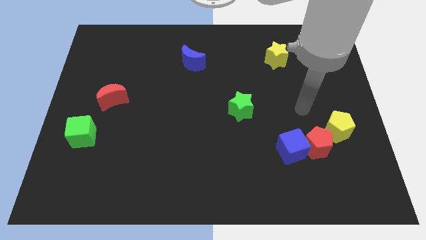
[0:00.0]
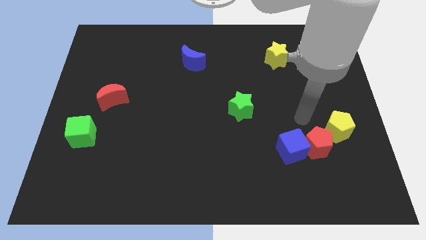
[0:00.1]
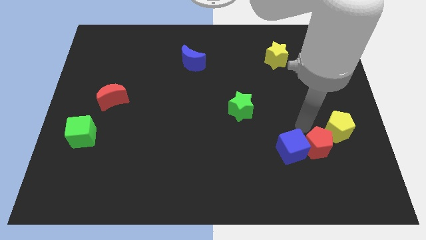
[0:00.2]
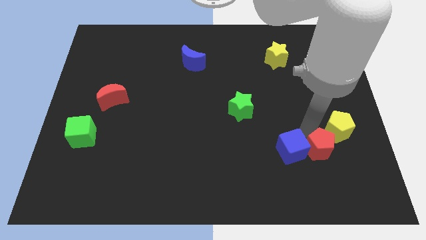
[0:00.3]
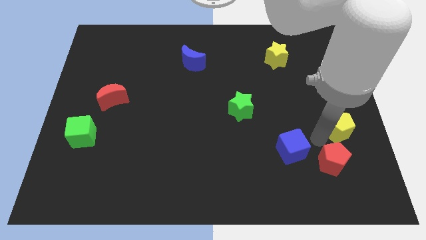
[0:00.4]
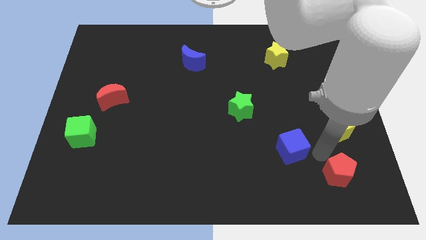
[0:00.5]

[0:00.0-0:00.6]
pull the blue cube apart from the red pentagon

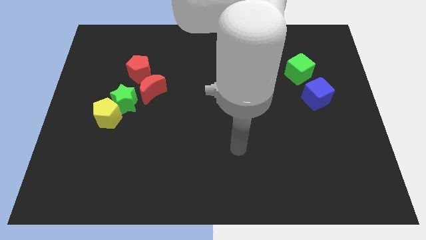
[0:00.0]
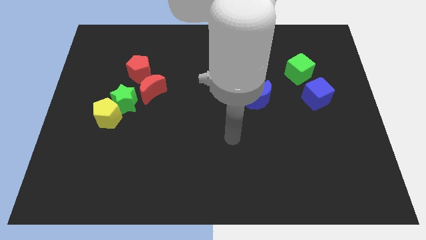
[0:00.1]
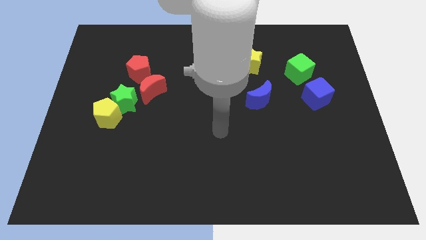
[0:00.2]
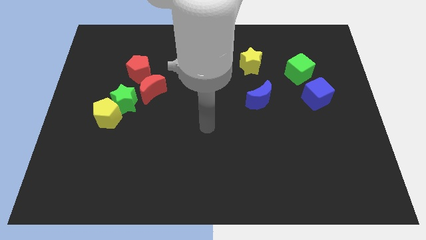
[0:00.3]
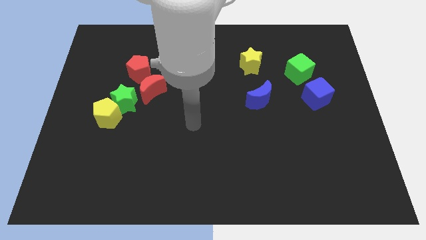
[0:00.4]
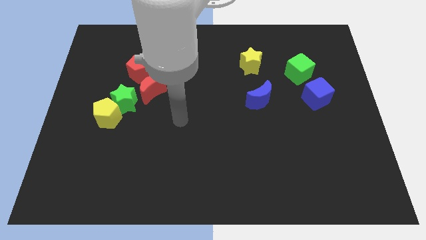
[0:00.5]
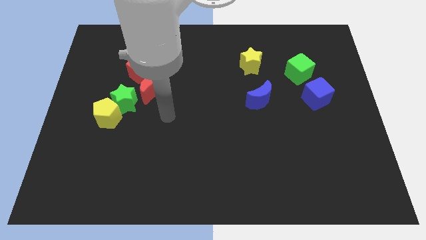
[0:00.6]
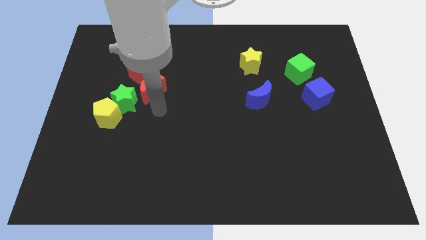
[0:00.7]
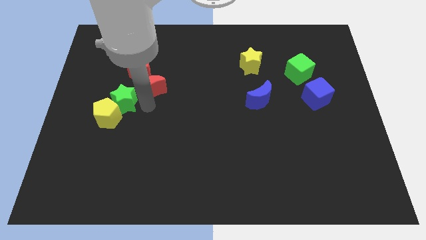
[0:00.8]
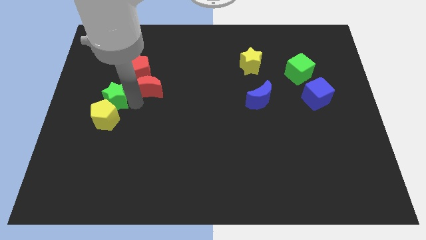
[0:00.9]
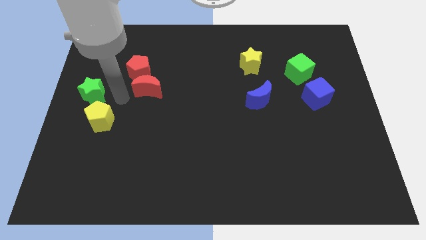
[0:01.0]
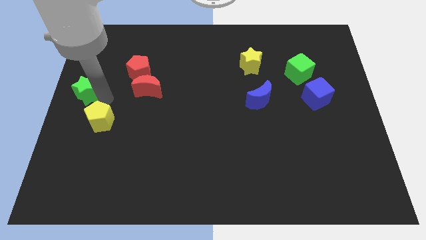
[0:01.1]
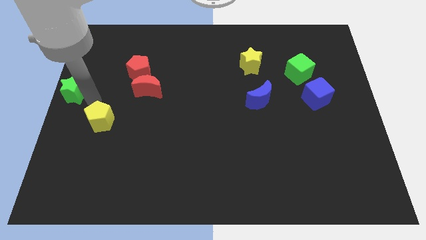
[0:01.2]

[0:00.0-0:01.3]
separate the yellow pentagon from the green star

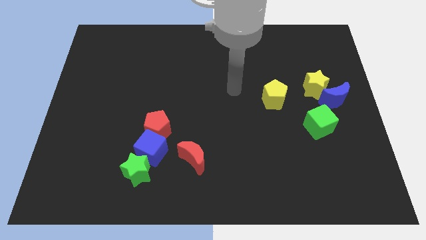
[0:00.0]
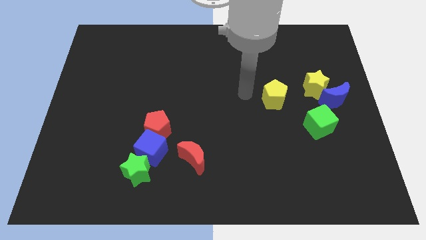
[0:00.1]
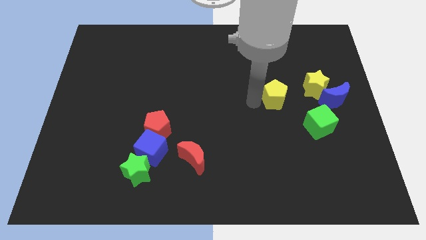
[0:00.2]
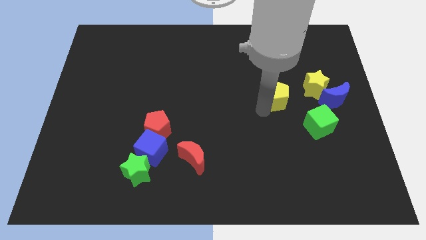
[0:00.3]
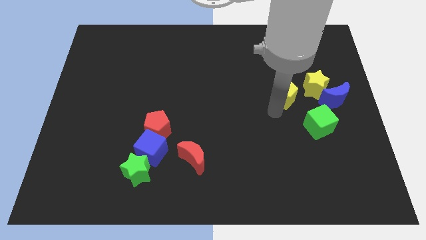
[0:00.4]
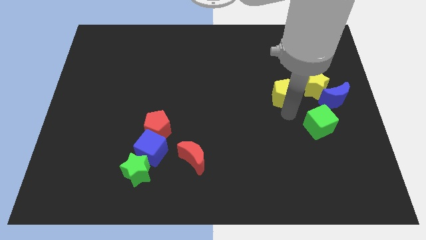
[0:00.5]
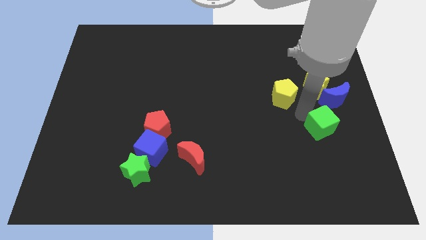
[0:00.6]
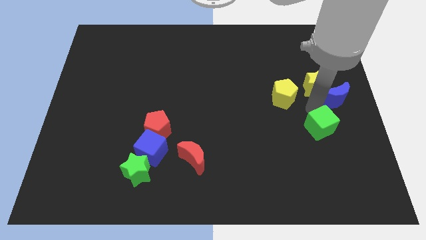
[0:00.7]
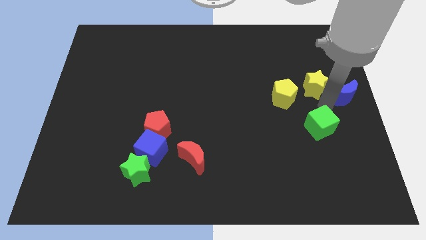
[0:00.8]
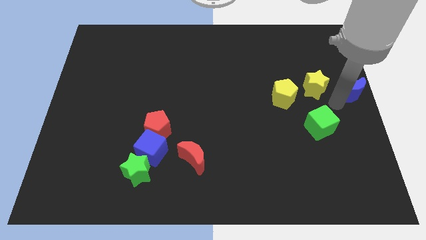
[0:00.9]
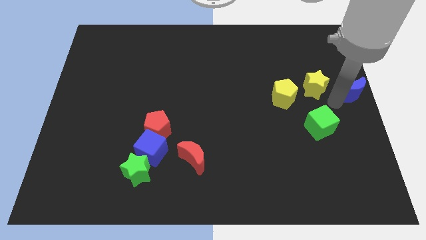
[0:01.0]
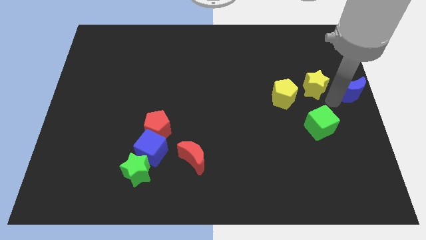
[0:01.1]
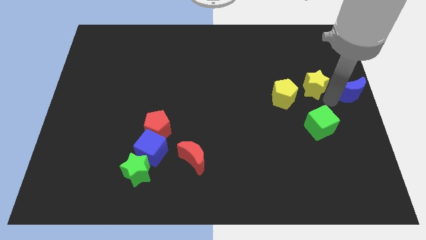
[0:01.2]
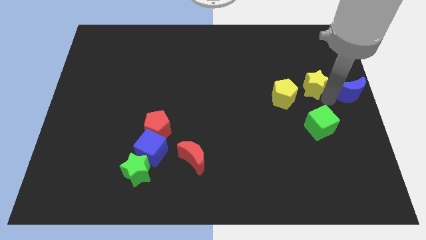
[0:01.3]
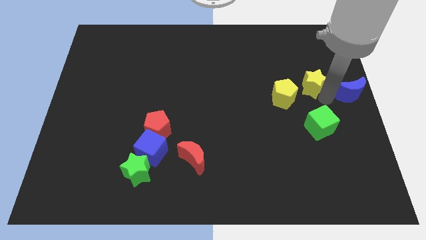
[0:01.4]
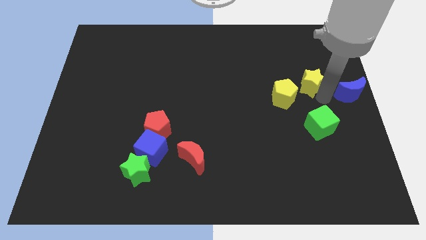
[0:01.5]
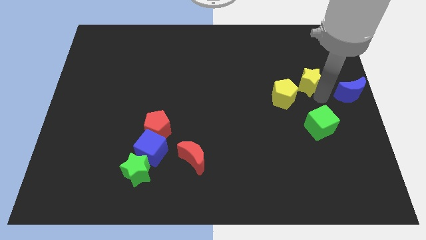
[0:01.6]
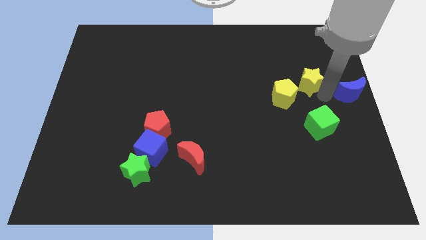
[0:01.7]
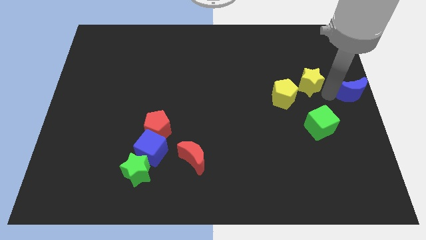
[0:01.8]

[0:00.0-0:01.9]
pull the yellow star apart from the blue moon

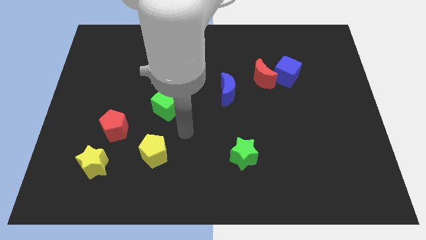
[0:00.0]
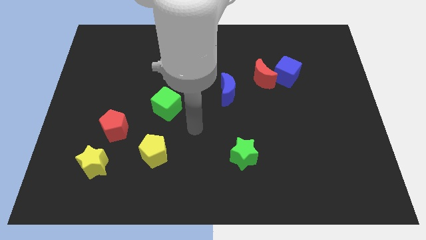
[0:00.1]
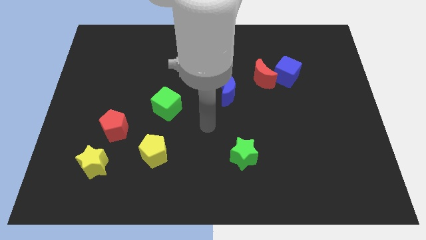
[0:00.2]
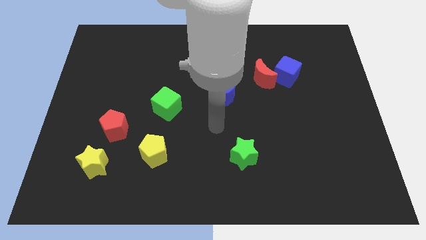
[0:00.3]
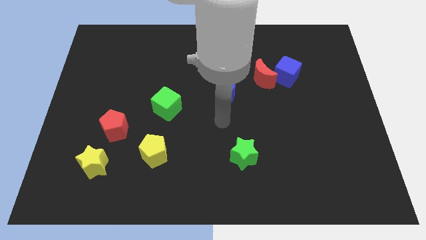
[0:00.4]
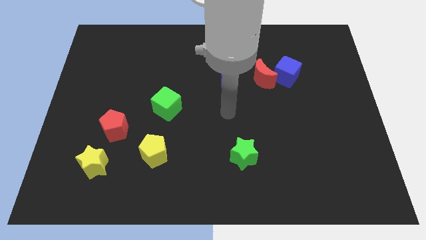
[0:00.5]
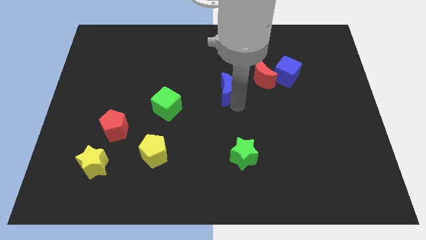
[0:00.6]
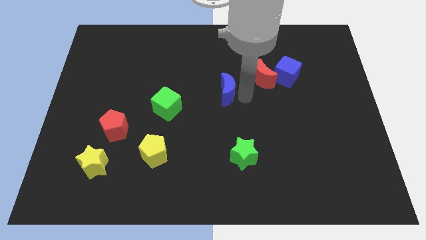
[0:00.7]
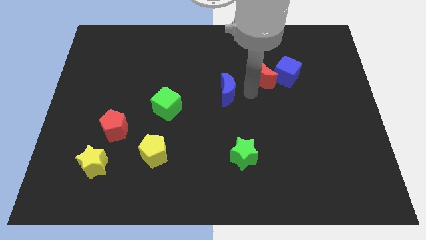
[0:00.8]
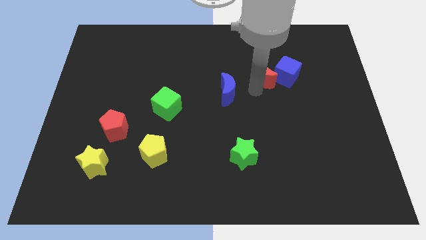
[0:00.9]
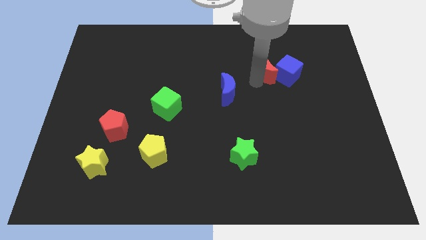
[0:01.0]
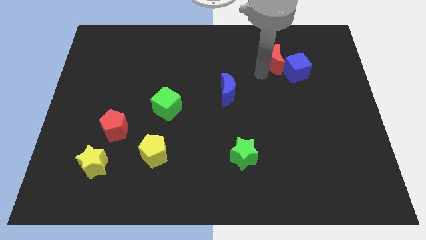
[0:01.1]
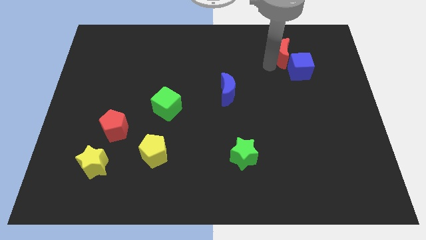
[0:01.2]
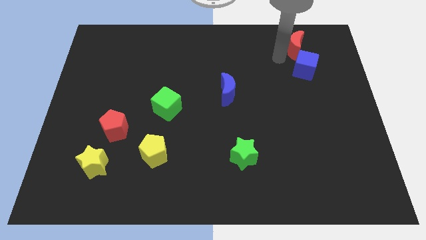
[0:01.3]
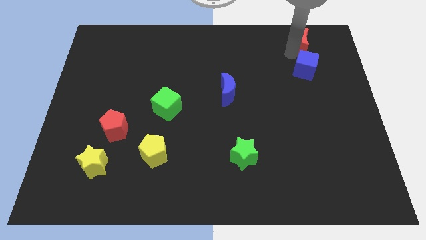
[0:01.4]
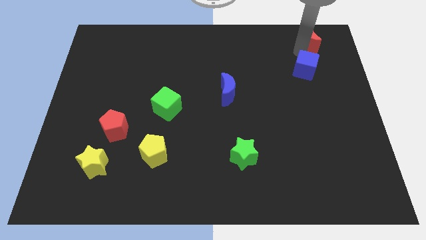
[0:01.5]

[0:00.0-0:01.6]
separate the blue cube from the red moon

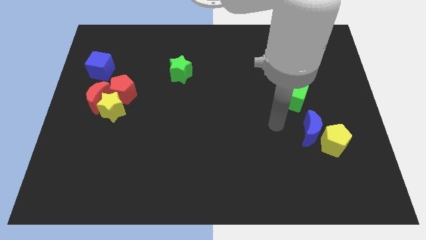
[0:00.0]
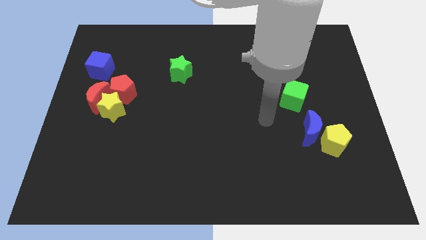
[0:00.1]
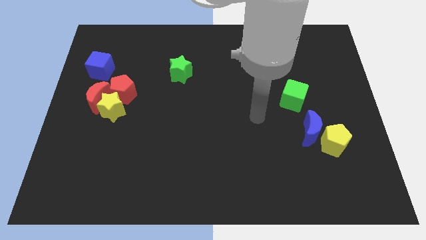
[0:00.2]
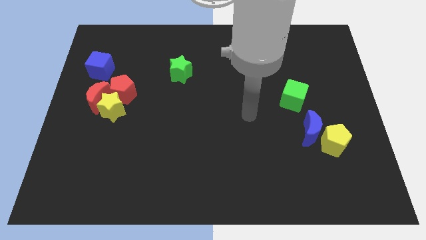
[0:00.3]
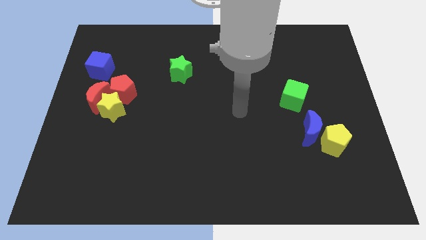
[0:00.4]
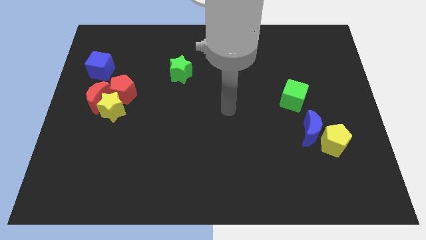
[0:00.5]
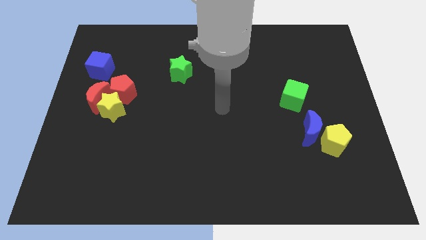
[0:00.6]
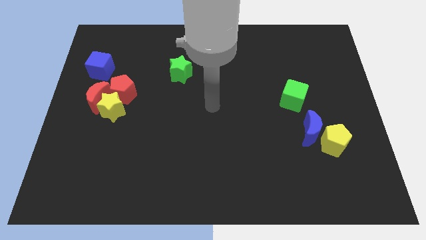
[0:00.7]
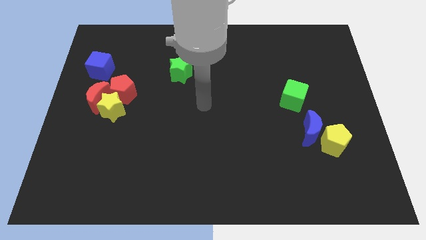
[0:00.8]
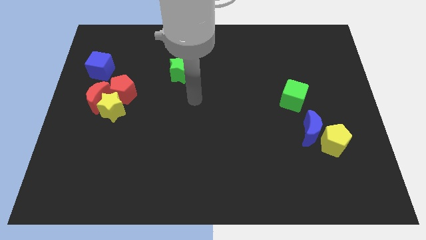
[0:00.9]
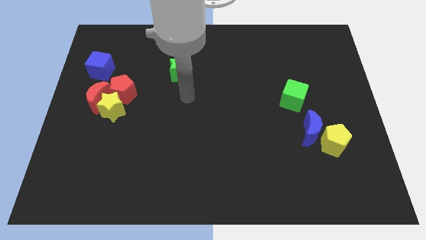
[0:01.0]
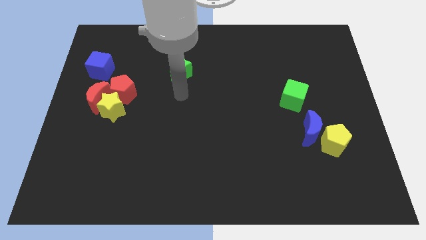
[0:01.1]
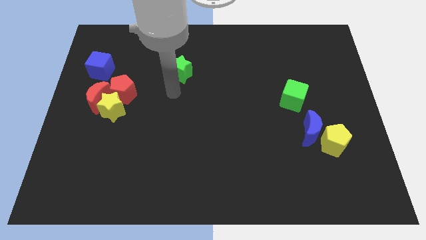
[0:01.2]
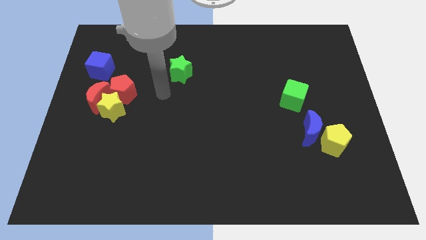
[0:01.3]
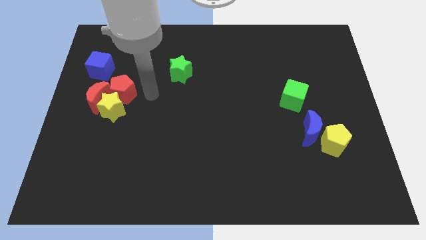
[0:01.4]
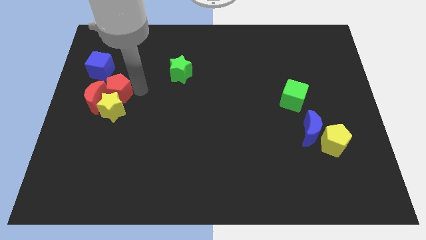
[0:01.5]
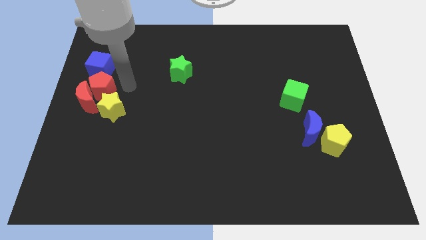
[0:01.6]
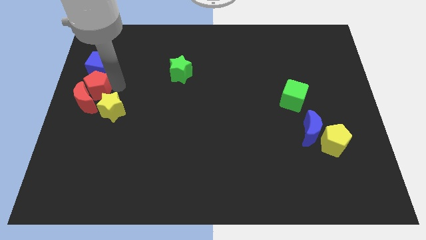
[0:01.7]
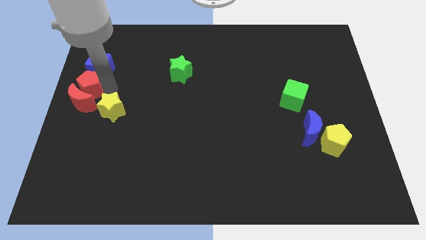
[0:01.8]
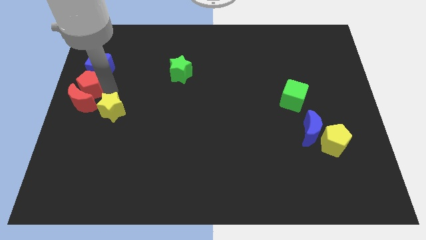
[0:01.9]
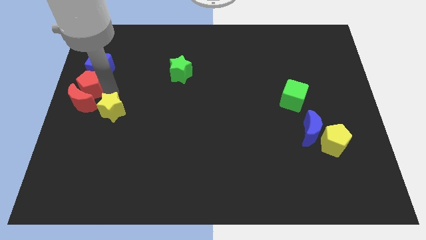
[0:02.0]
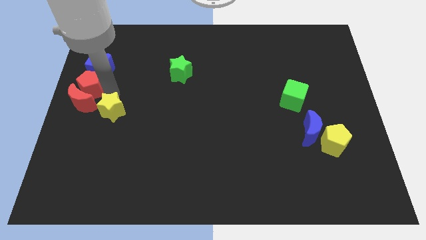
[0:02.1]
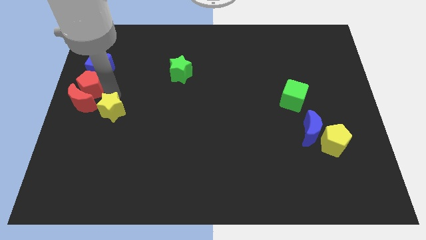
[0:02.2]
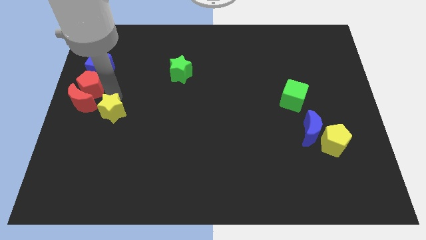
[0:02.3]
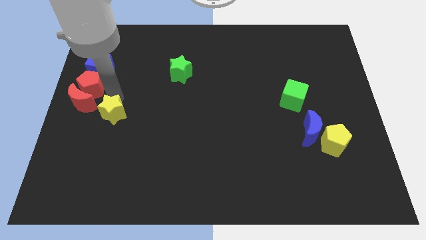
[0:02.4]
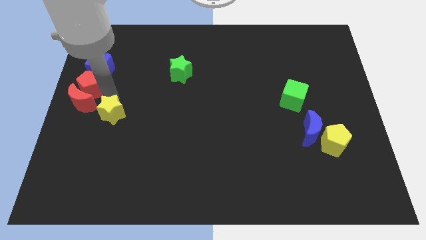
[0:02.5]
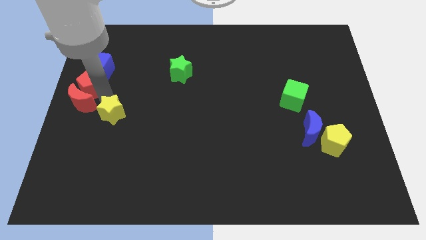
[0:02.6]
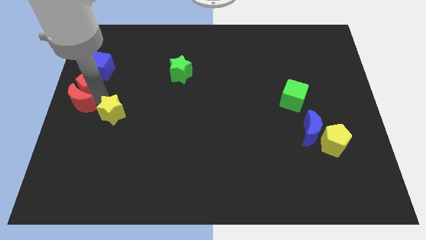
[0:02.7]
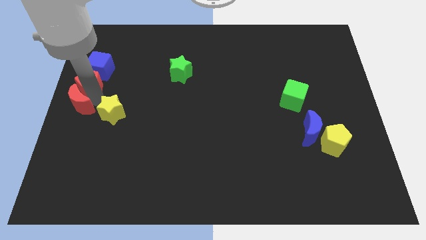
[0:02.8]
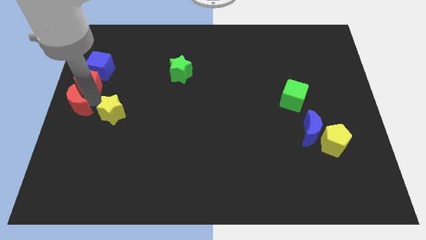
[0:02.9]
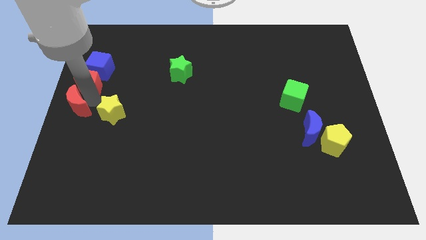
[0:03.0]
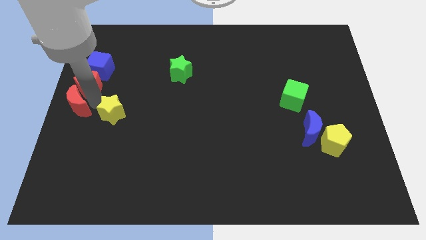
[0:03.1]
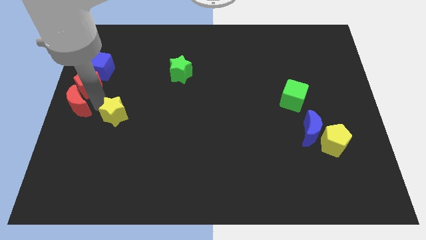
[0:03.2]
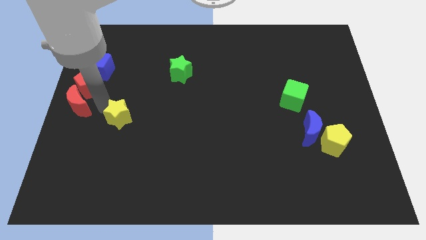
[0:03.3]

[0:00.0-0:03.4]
separate the yellow star from the red moon and red pentagon

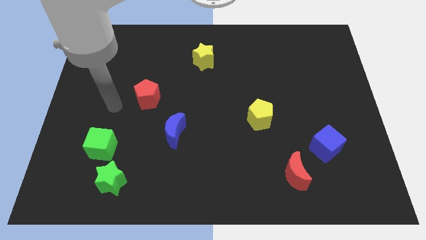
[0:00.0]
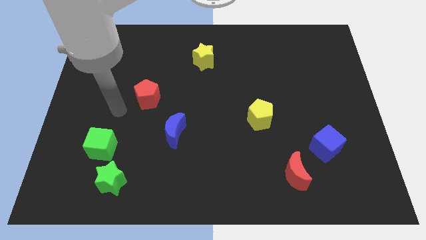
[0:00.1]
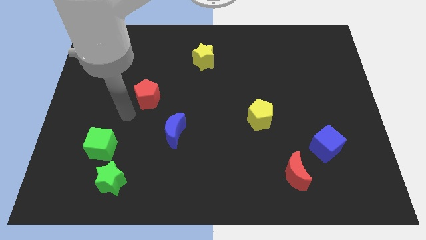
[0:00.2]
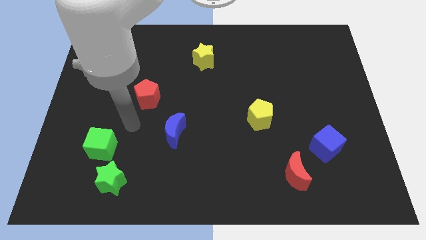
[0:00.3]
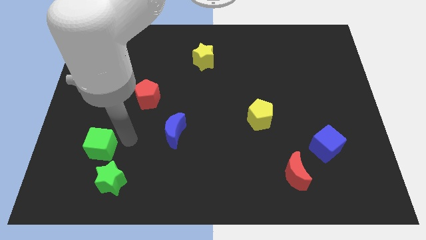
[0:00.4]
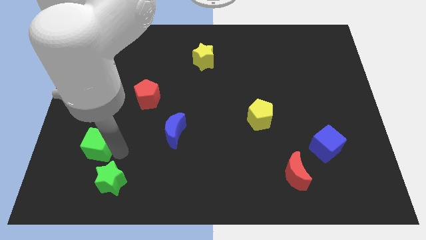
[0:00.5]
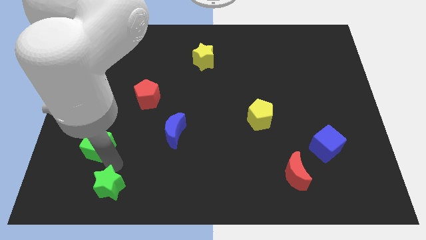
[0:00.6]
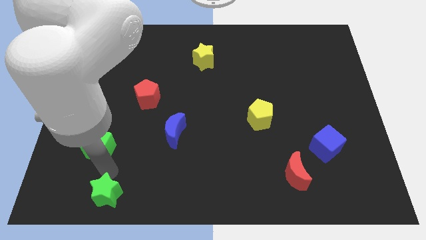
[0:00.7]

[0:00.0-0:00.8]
pull the green cube apart from the green star
